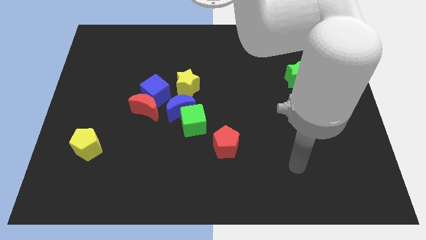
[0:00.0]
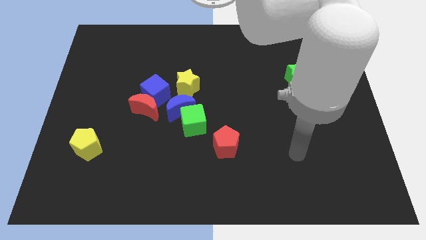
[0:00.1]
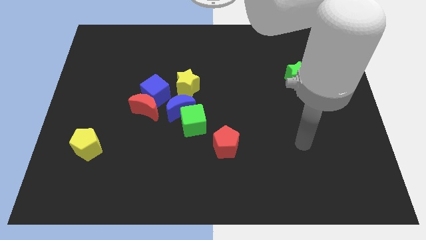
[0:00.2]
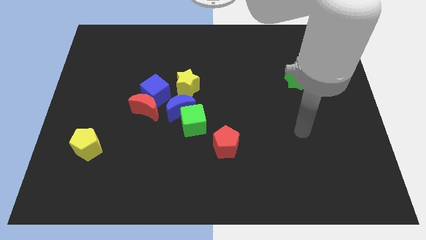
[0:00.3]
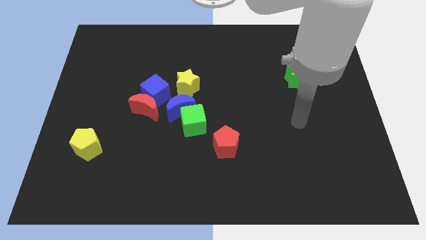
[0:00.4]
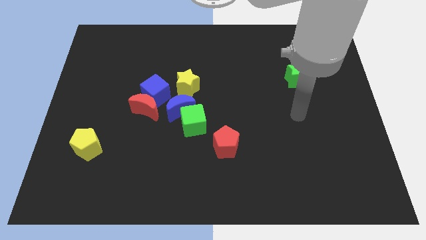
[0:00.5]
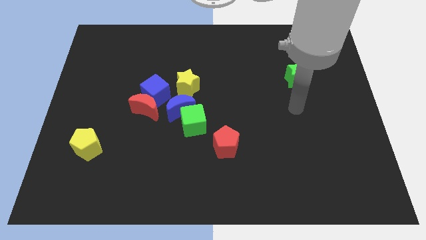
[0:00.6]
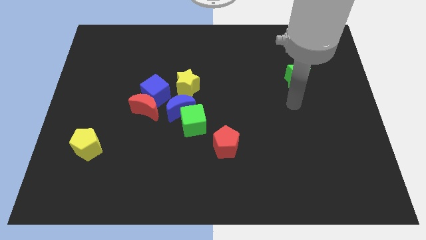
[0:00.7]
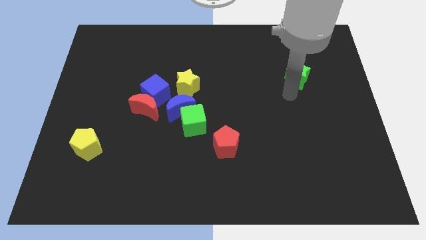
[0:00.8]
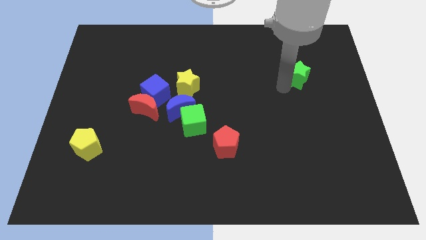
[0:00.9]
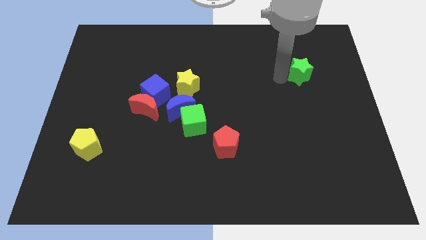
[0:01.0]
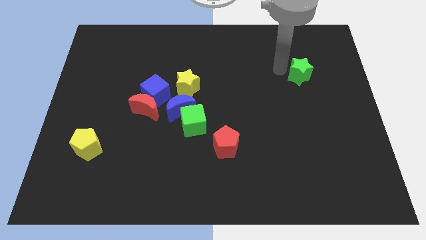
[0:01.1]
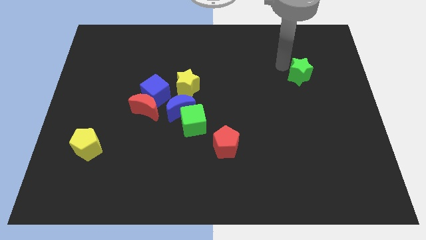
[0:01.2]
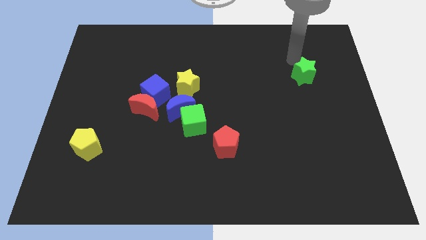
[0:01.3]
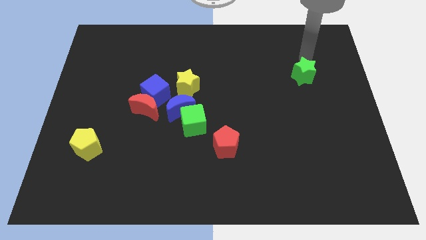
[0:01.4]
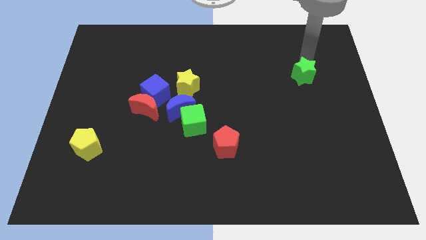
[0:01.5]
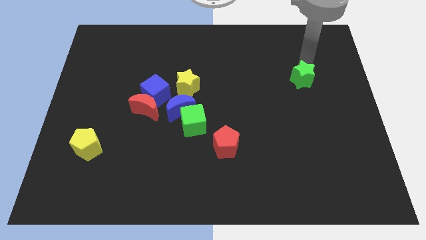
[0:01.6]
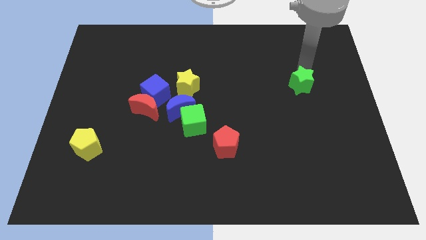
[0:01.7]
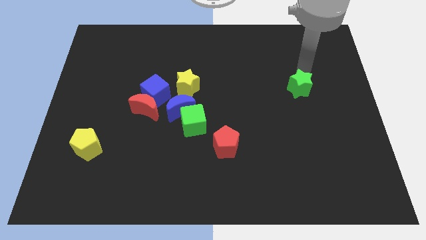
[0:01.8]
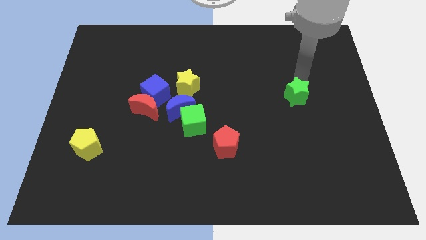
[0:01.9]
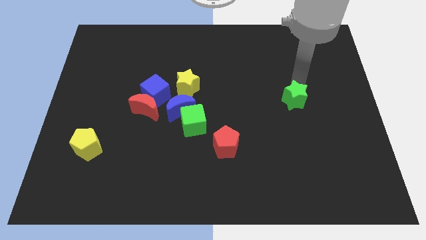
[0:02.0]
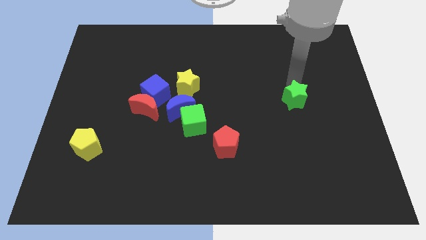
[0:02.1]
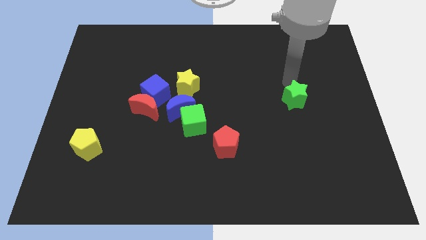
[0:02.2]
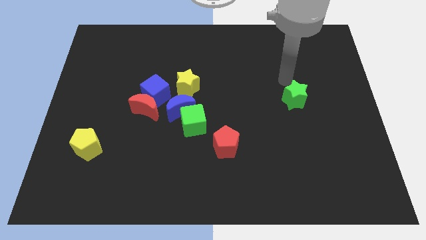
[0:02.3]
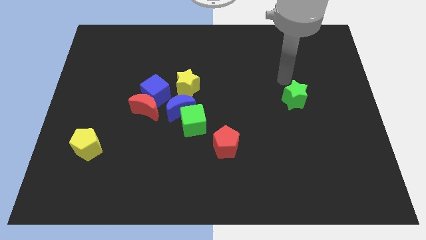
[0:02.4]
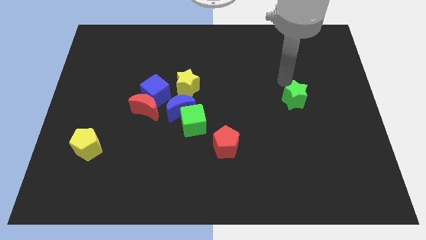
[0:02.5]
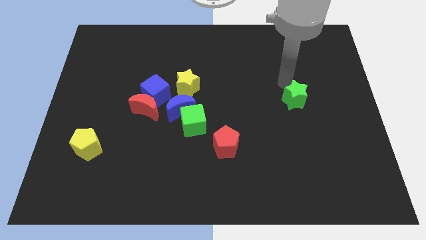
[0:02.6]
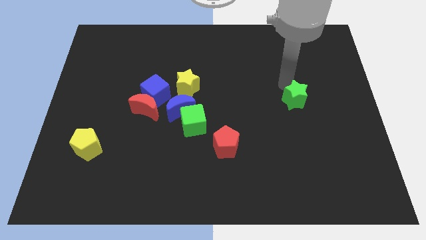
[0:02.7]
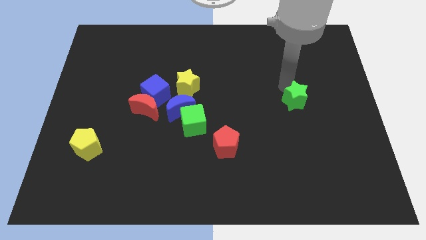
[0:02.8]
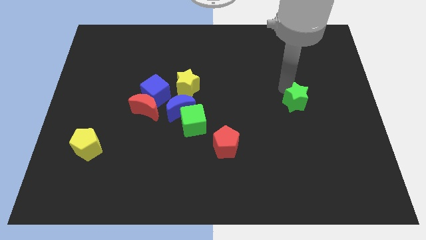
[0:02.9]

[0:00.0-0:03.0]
slightly push the green star down

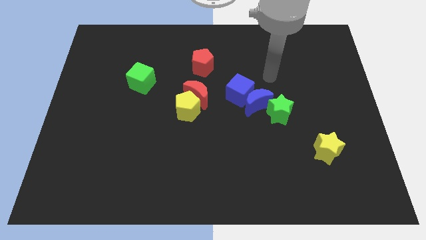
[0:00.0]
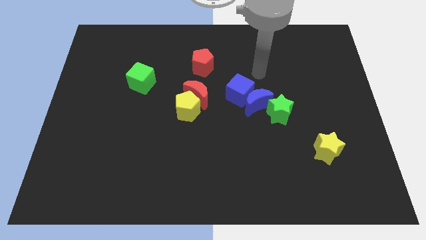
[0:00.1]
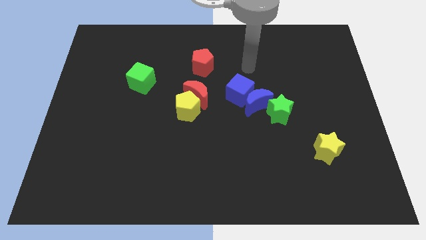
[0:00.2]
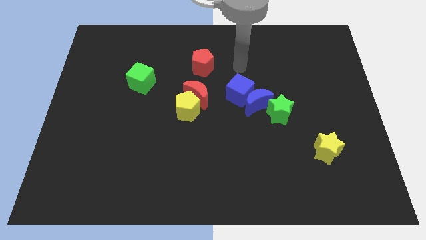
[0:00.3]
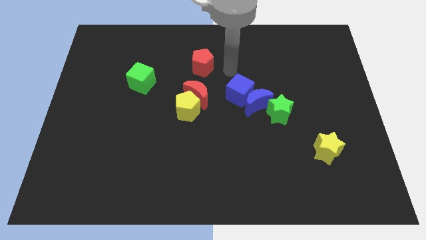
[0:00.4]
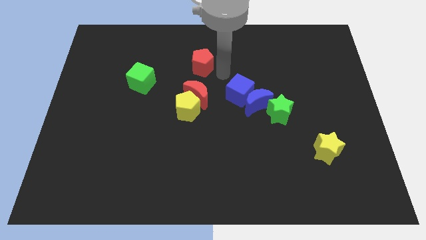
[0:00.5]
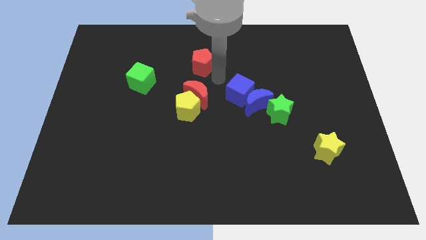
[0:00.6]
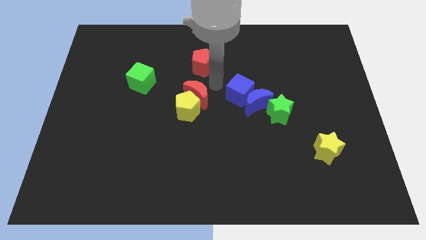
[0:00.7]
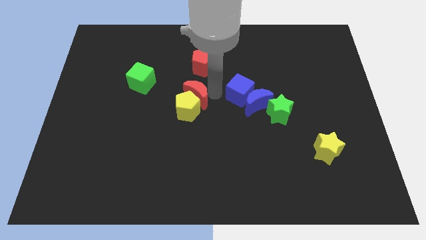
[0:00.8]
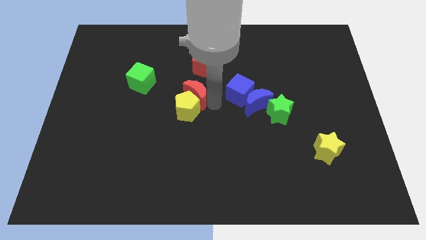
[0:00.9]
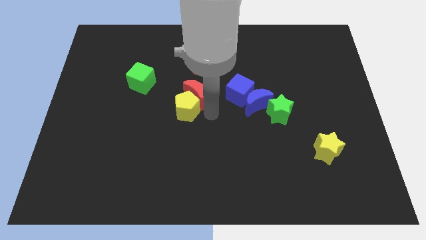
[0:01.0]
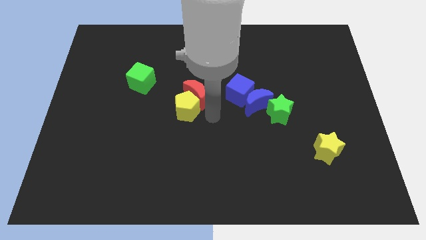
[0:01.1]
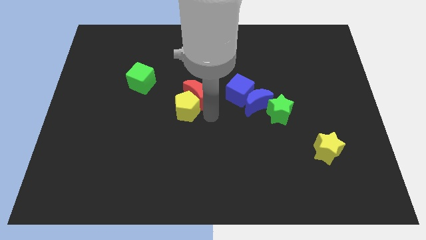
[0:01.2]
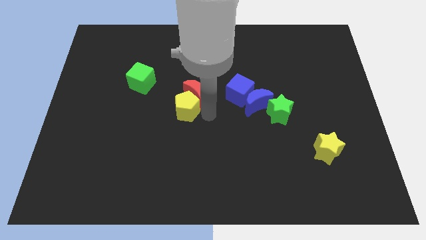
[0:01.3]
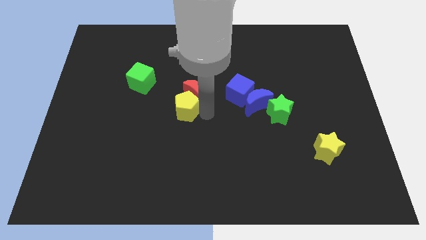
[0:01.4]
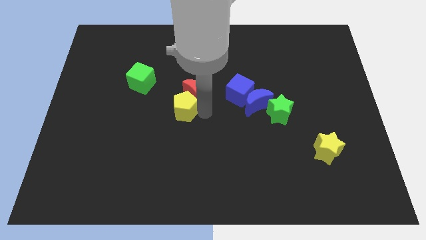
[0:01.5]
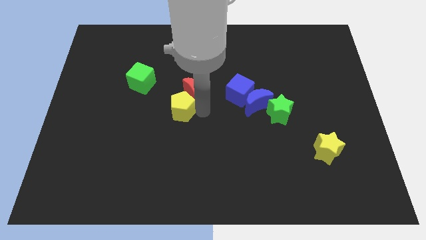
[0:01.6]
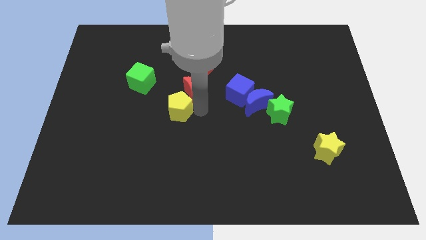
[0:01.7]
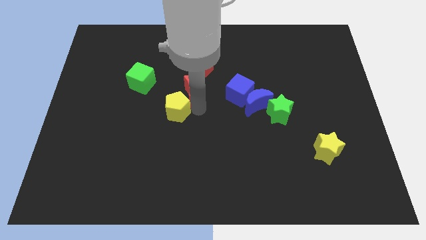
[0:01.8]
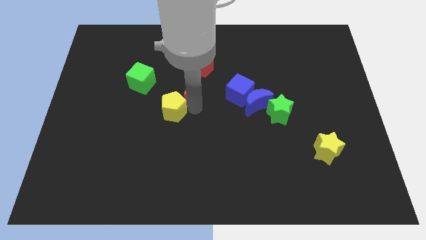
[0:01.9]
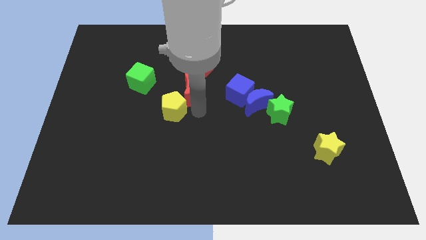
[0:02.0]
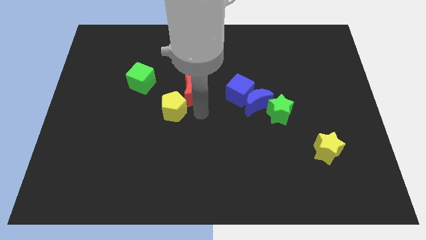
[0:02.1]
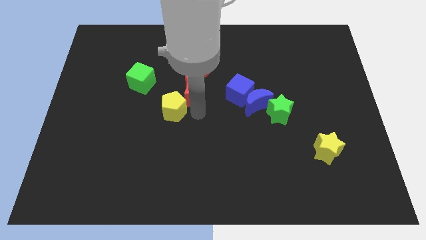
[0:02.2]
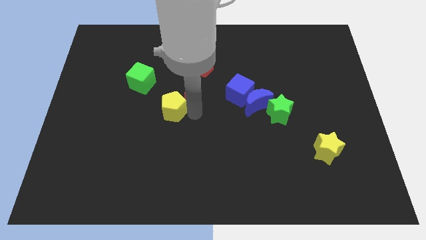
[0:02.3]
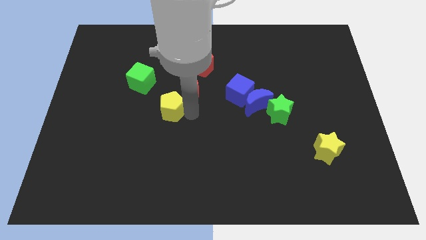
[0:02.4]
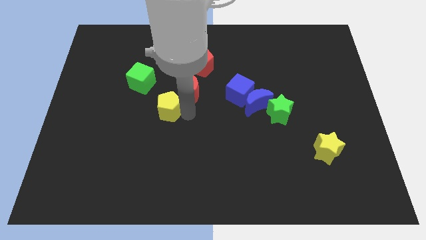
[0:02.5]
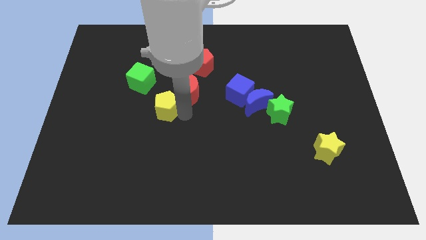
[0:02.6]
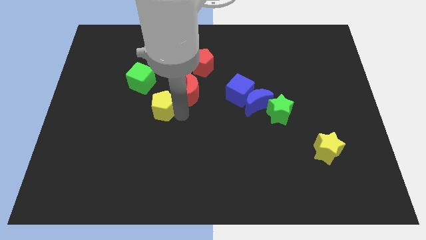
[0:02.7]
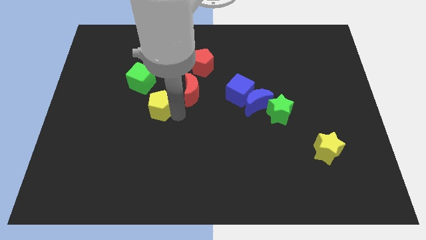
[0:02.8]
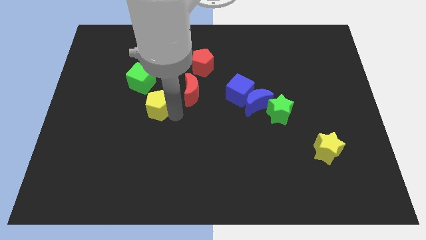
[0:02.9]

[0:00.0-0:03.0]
move the yellow pentagon to the left slightly

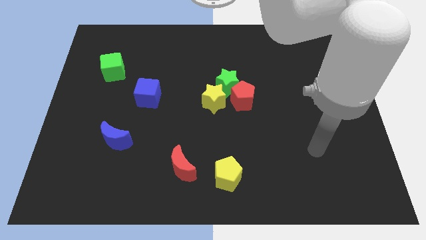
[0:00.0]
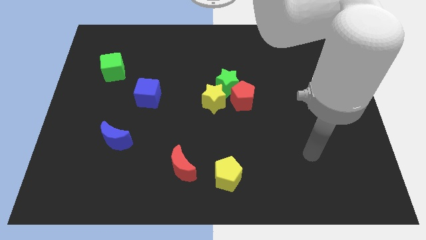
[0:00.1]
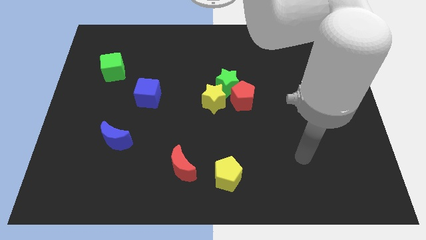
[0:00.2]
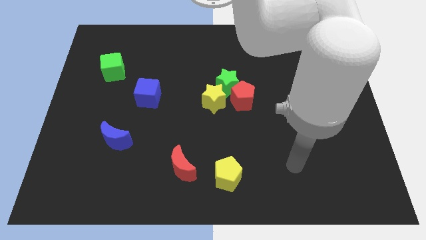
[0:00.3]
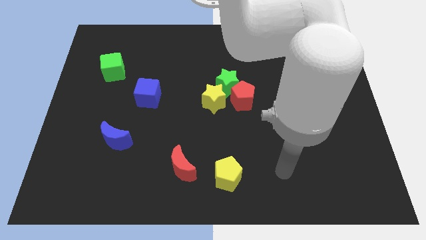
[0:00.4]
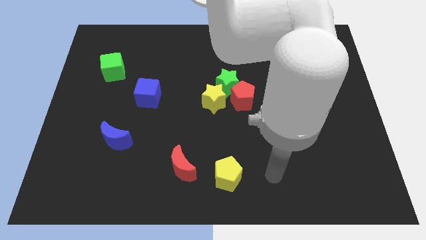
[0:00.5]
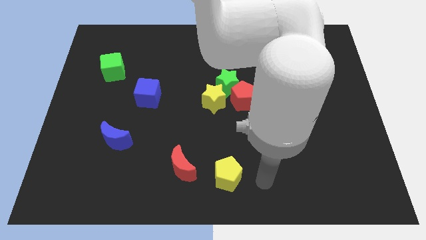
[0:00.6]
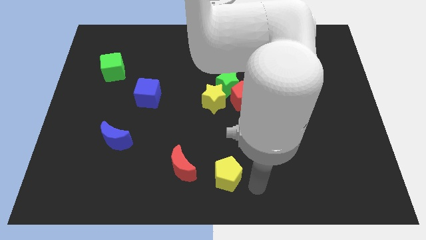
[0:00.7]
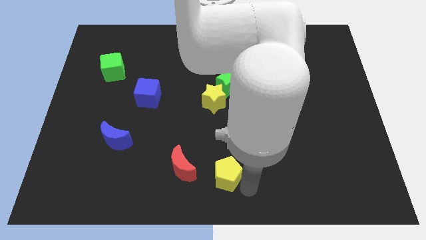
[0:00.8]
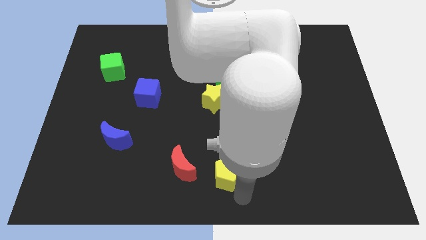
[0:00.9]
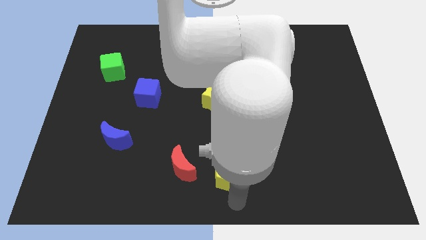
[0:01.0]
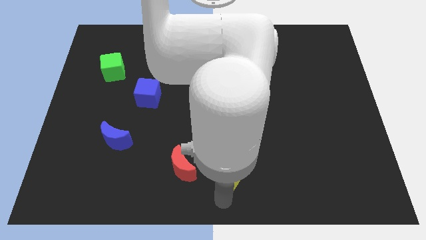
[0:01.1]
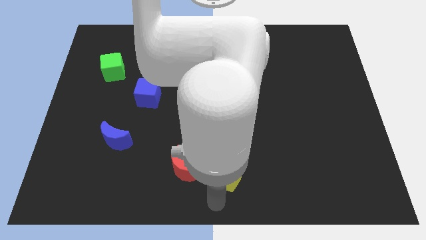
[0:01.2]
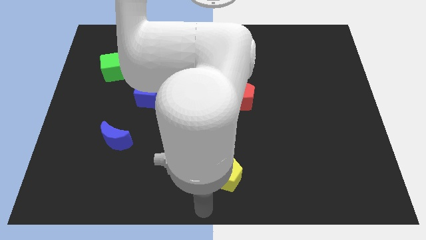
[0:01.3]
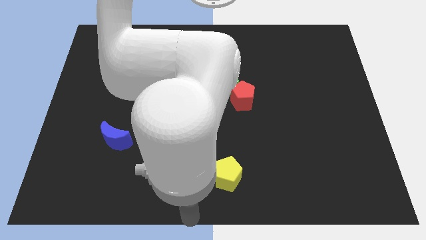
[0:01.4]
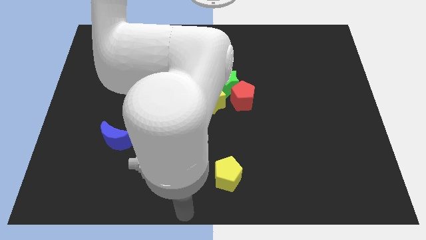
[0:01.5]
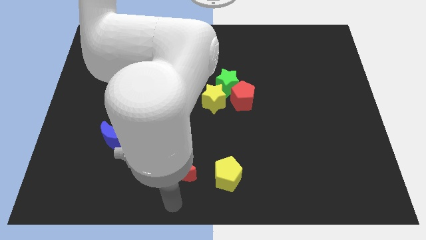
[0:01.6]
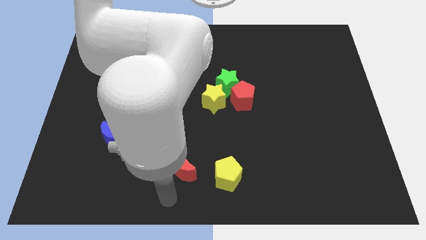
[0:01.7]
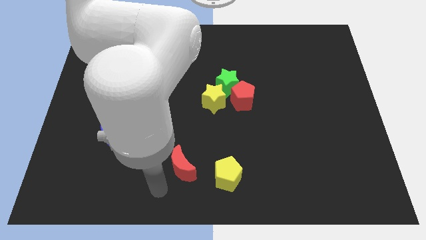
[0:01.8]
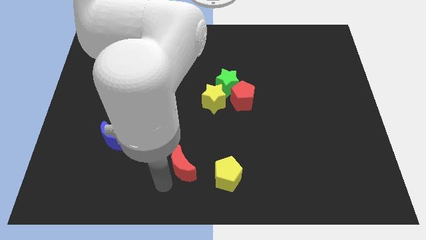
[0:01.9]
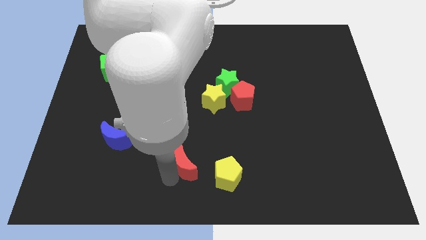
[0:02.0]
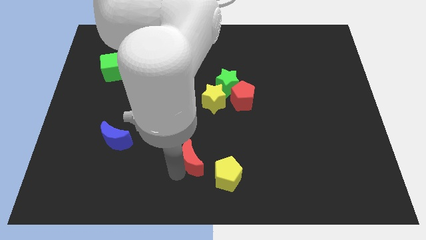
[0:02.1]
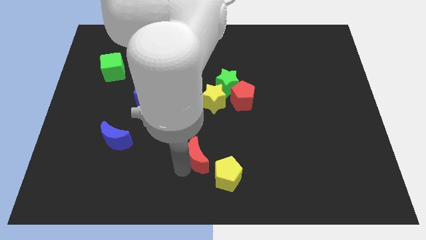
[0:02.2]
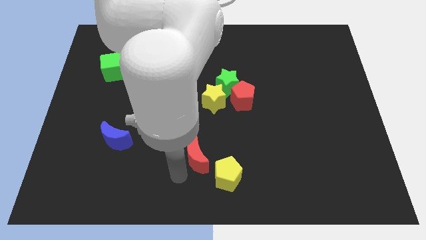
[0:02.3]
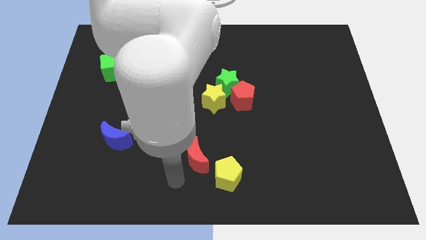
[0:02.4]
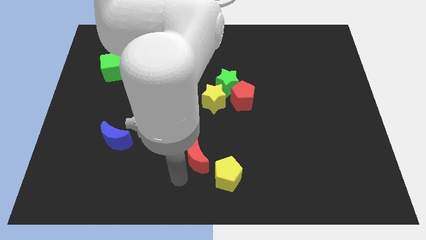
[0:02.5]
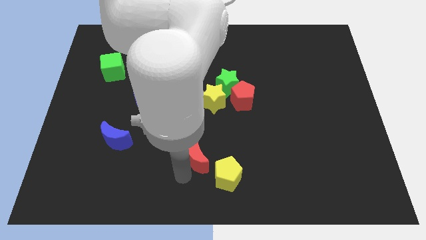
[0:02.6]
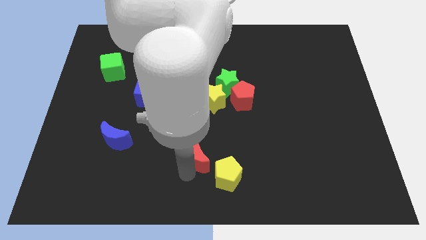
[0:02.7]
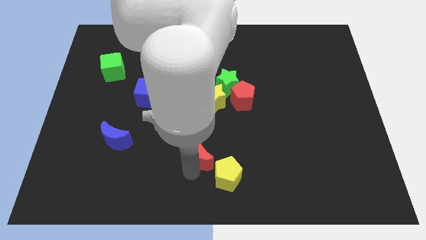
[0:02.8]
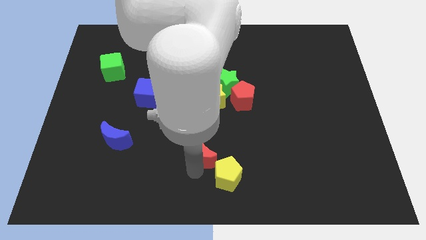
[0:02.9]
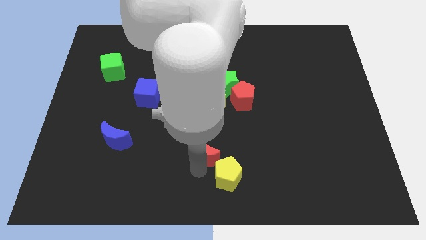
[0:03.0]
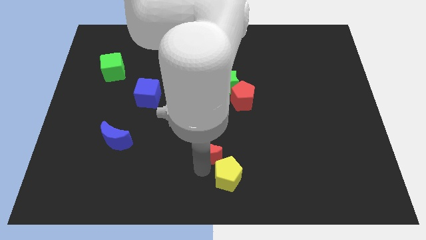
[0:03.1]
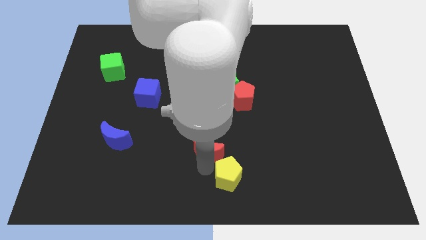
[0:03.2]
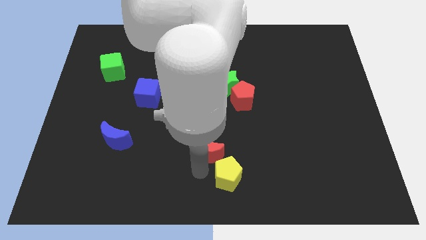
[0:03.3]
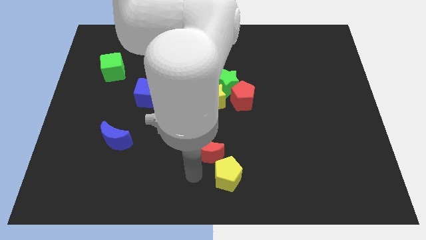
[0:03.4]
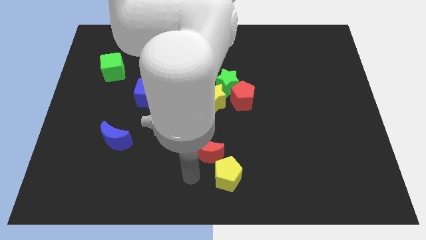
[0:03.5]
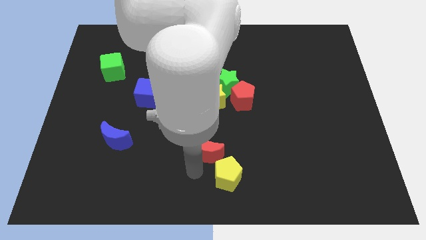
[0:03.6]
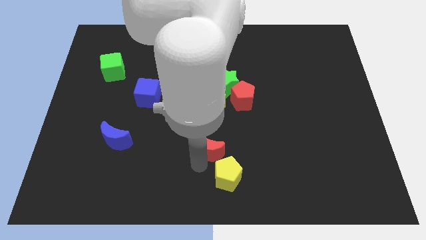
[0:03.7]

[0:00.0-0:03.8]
push the red moon upwards and right diagonally a bit
